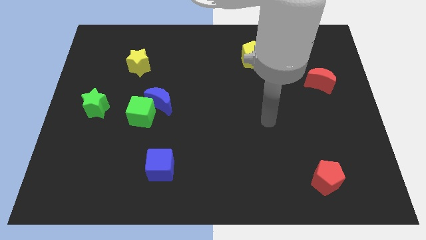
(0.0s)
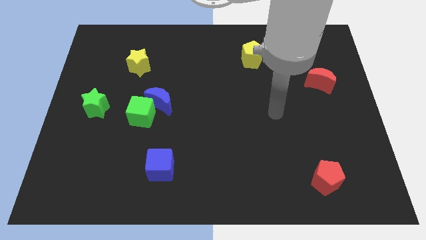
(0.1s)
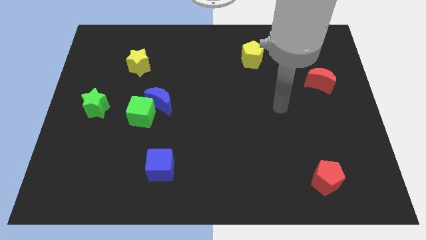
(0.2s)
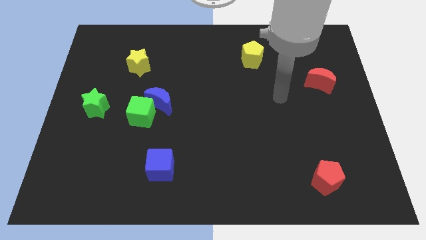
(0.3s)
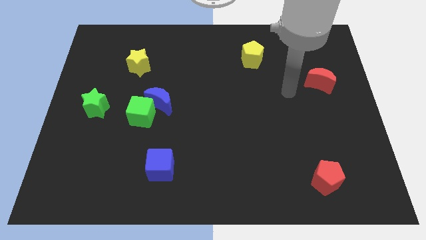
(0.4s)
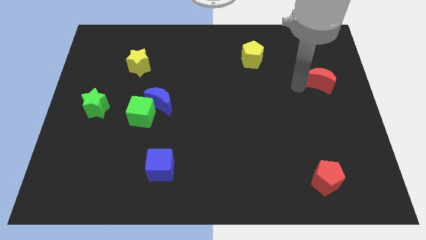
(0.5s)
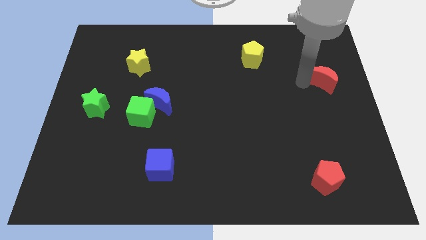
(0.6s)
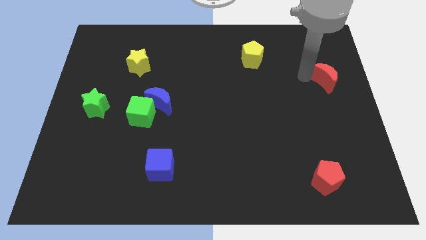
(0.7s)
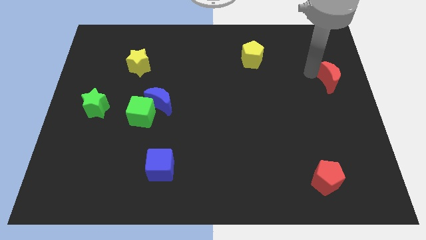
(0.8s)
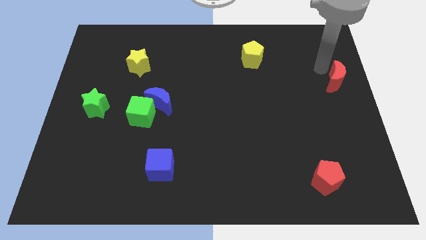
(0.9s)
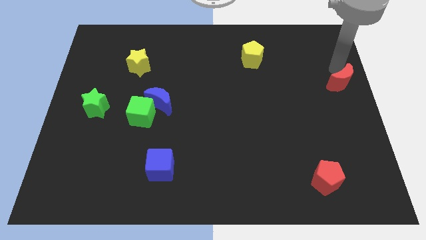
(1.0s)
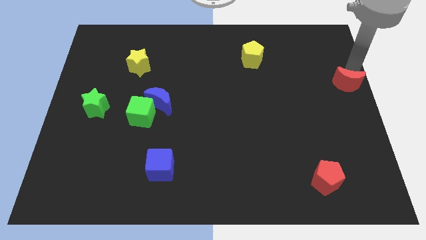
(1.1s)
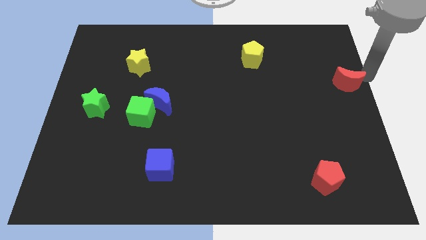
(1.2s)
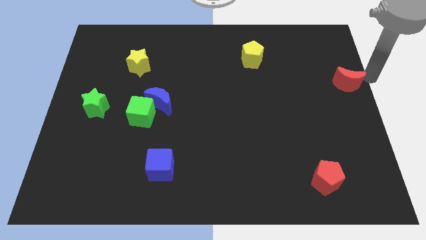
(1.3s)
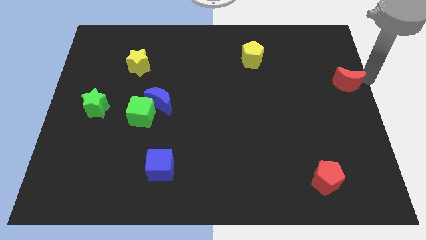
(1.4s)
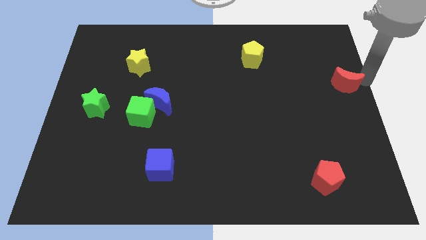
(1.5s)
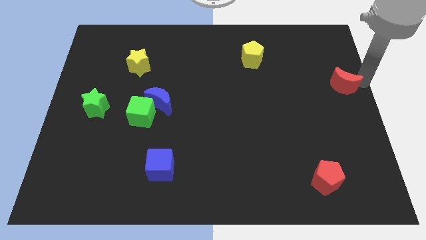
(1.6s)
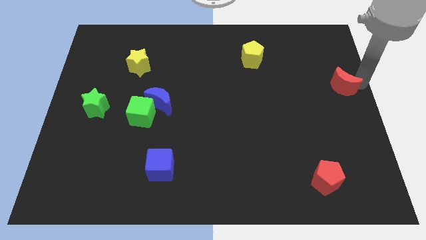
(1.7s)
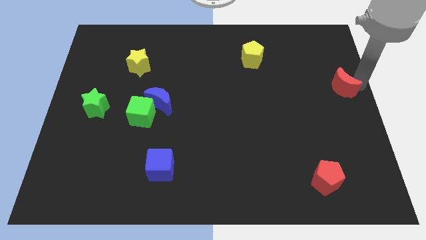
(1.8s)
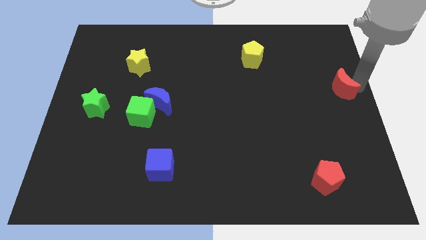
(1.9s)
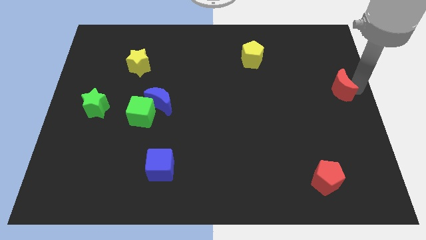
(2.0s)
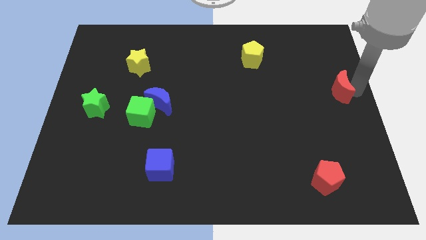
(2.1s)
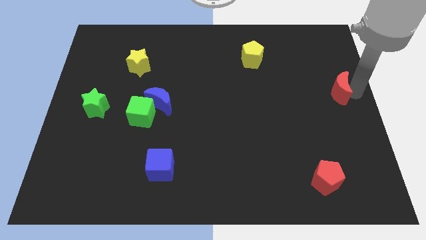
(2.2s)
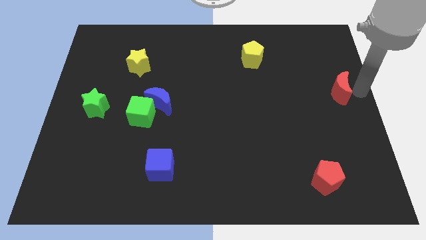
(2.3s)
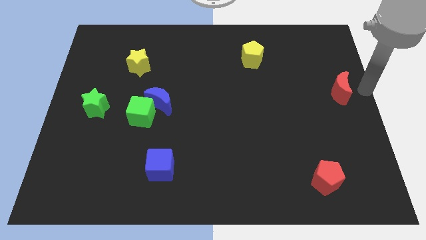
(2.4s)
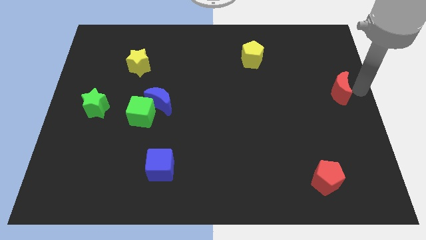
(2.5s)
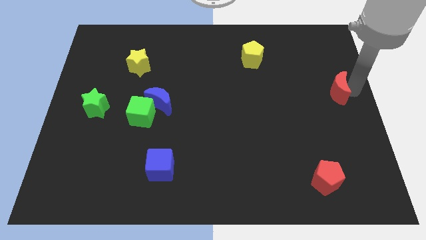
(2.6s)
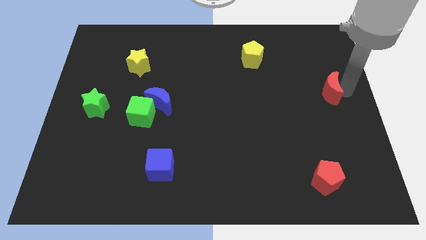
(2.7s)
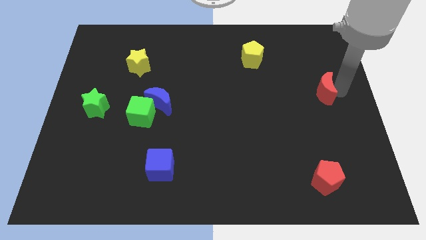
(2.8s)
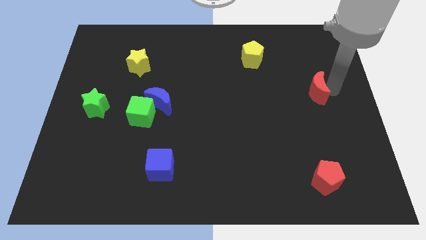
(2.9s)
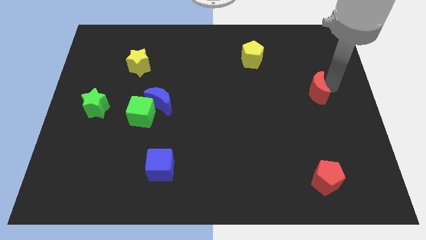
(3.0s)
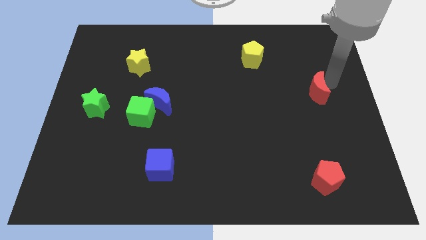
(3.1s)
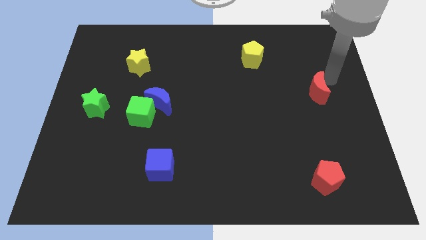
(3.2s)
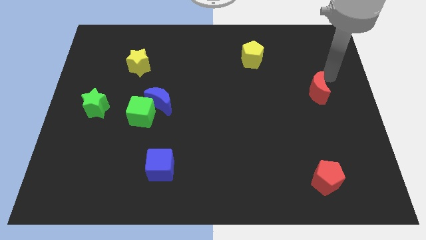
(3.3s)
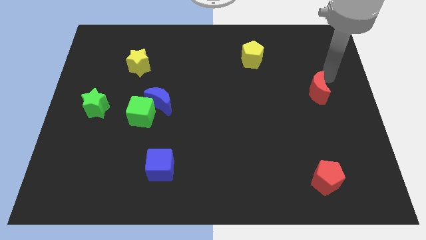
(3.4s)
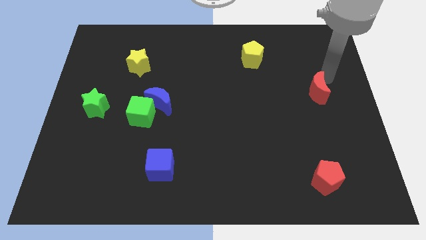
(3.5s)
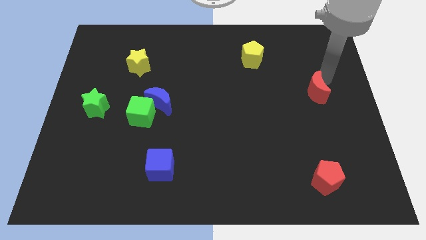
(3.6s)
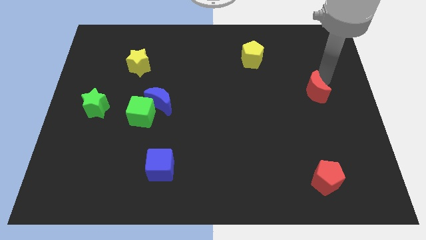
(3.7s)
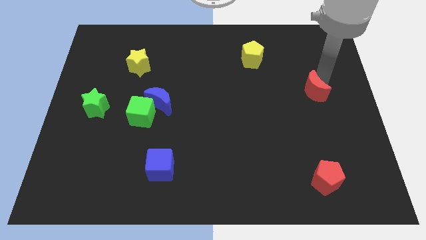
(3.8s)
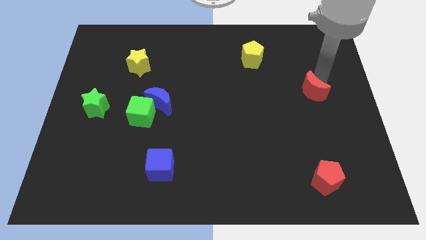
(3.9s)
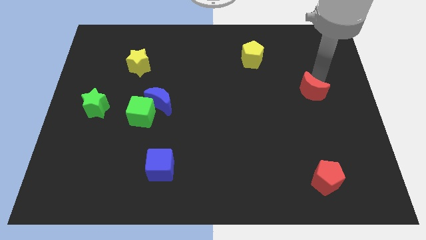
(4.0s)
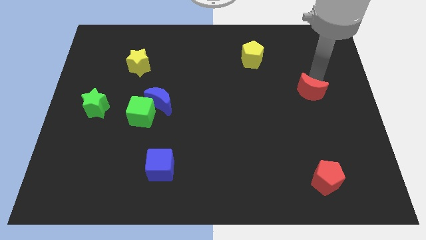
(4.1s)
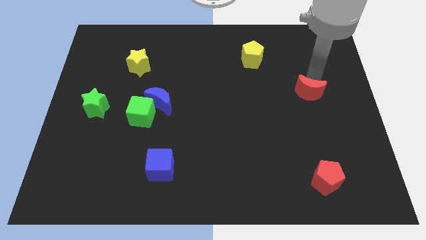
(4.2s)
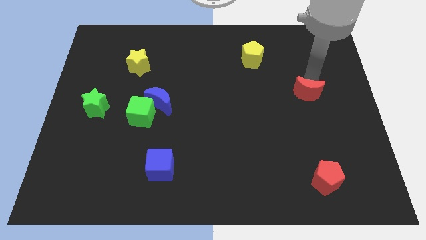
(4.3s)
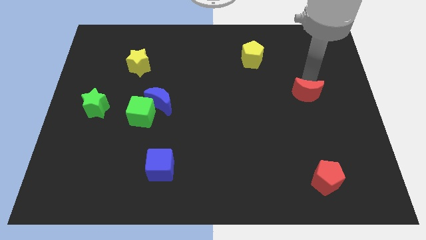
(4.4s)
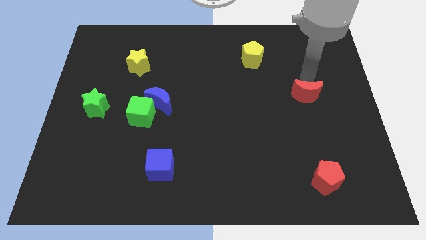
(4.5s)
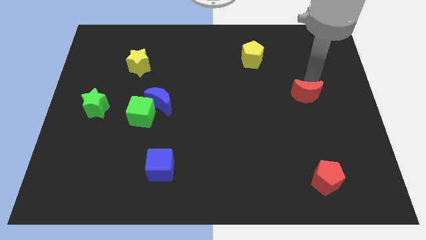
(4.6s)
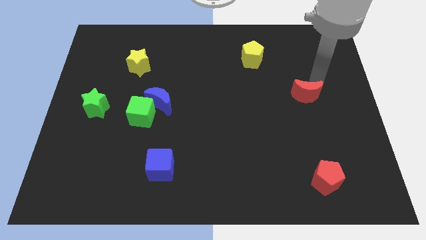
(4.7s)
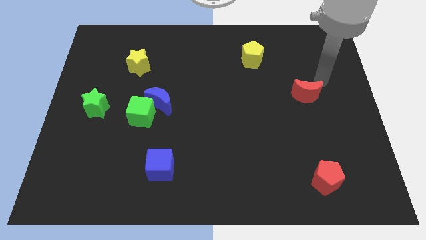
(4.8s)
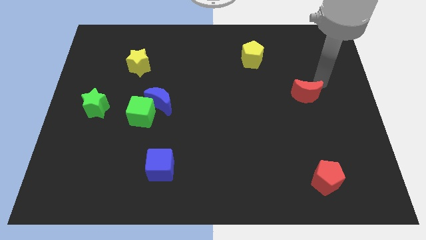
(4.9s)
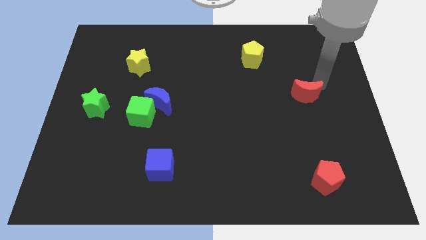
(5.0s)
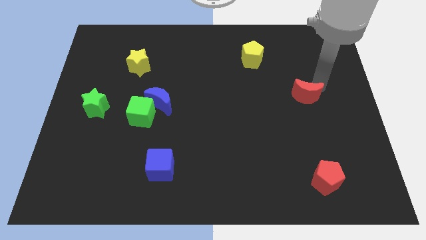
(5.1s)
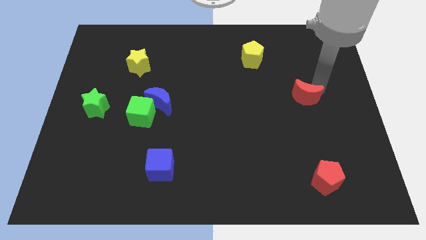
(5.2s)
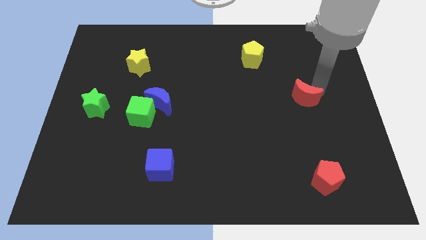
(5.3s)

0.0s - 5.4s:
slightly move the red moon down and left diagonally

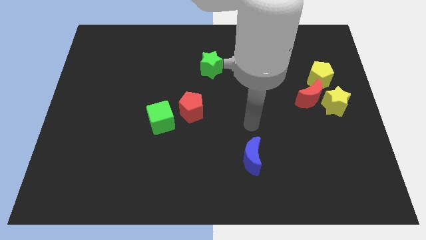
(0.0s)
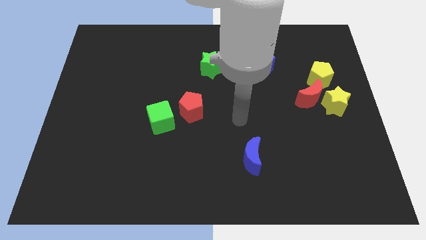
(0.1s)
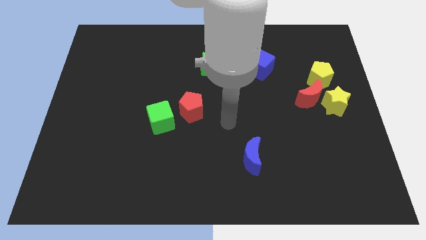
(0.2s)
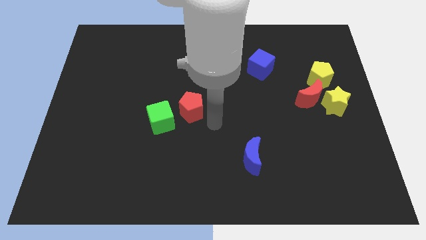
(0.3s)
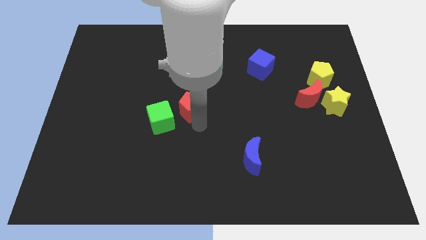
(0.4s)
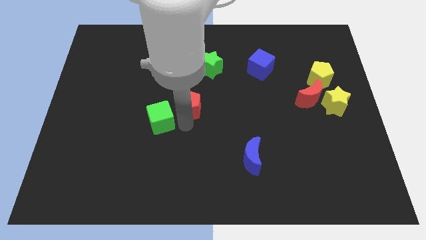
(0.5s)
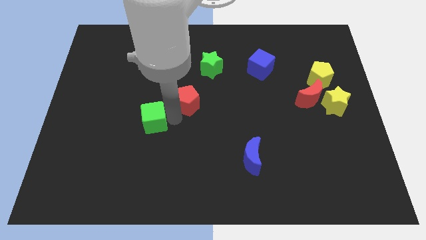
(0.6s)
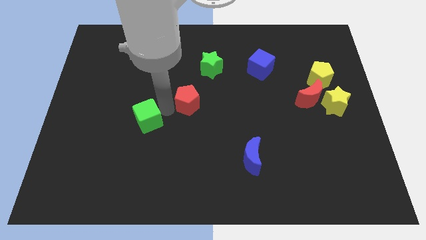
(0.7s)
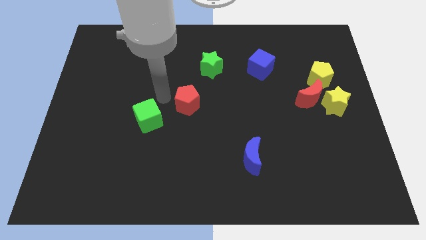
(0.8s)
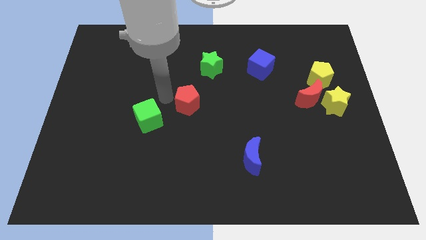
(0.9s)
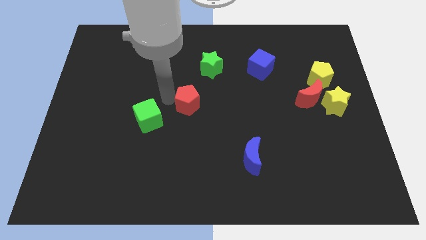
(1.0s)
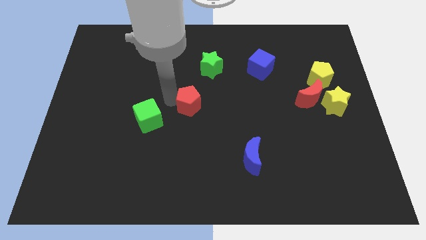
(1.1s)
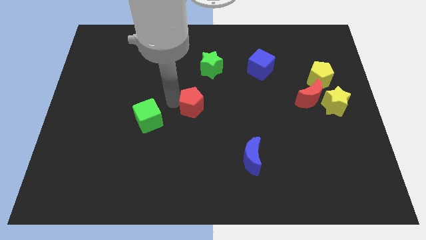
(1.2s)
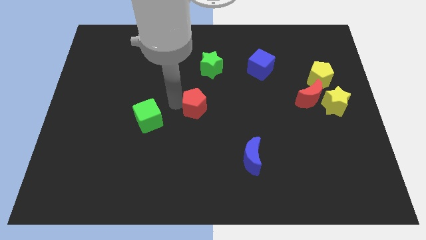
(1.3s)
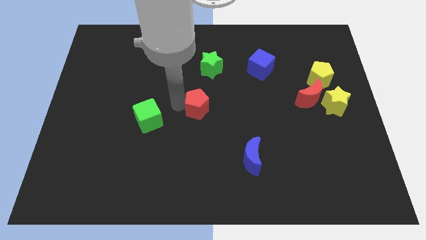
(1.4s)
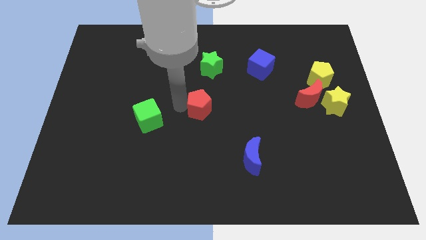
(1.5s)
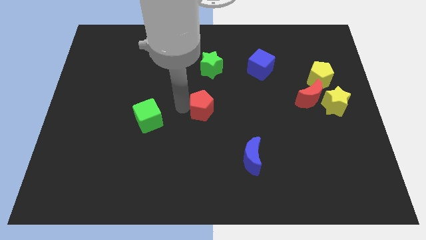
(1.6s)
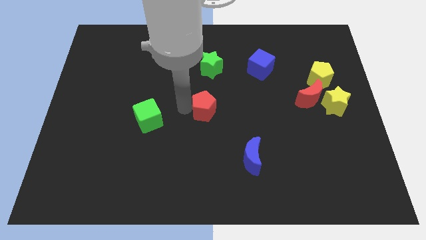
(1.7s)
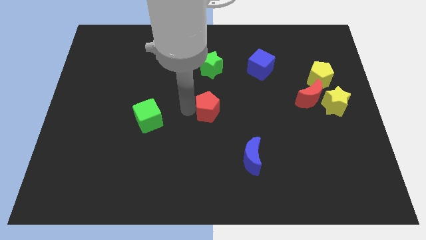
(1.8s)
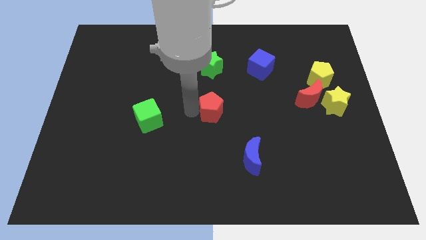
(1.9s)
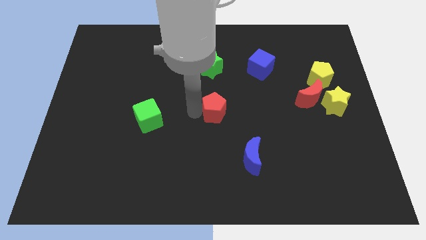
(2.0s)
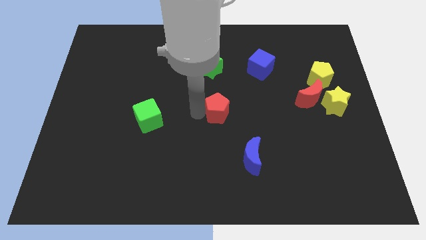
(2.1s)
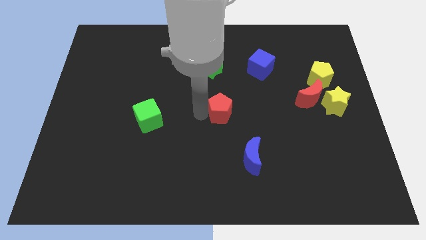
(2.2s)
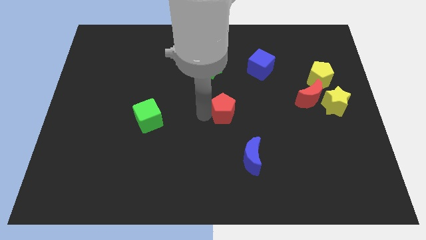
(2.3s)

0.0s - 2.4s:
slightly push the red pentagon to the right

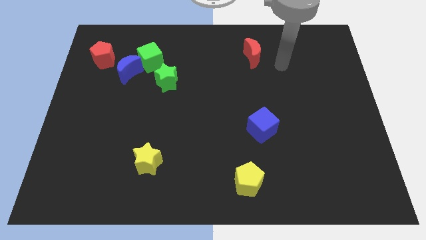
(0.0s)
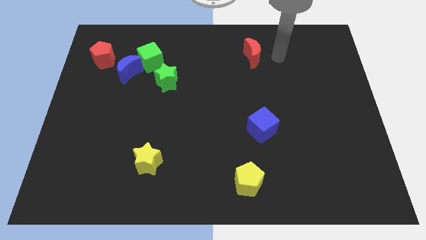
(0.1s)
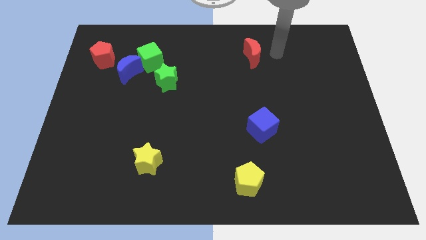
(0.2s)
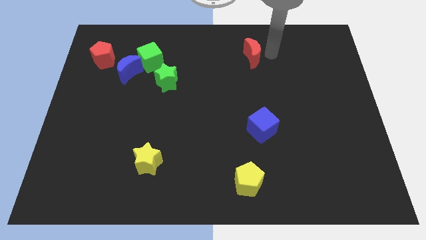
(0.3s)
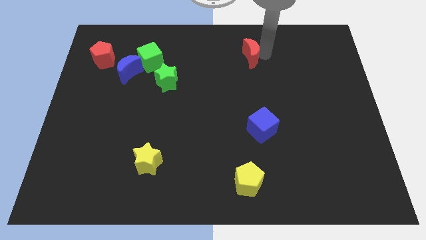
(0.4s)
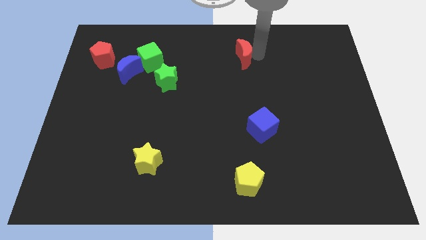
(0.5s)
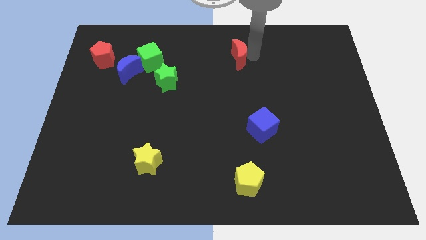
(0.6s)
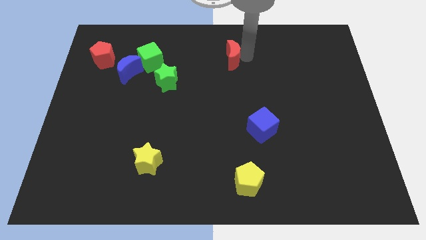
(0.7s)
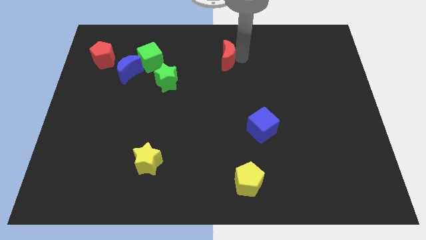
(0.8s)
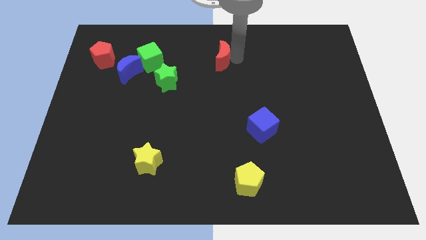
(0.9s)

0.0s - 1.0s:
push the red moon to the left a little
